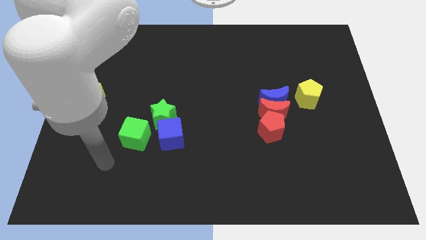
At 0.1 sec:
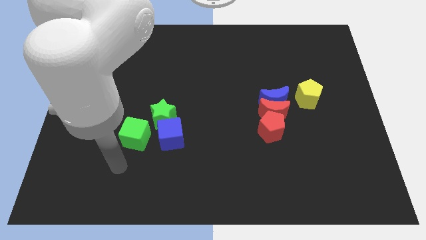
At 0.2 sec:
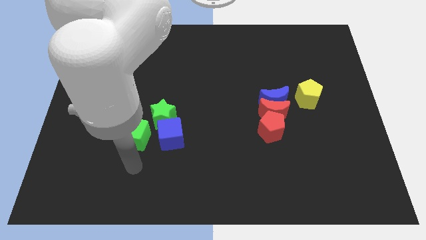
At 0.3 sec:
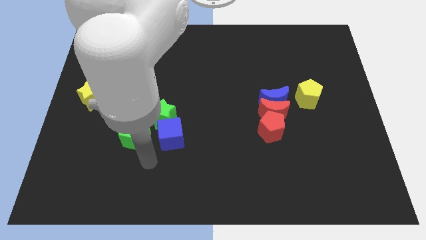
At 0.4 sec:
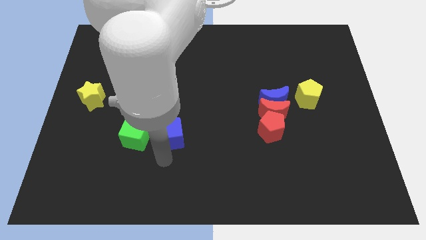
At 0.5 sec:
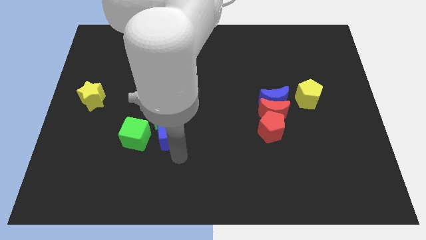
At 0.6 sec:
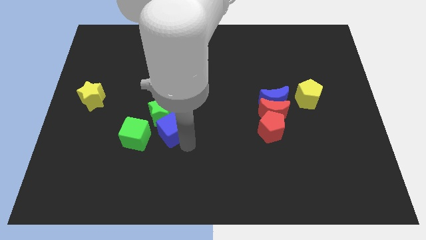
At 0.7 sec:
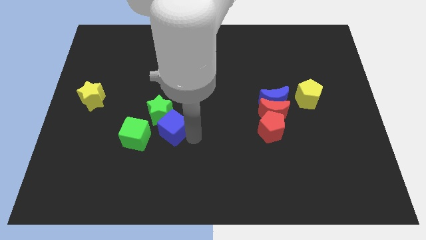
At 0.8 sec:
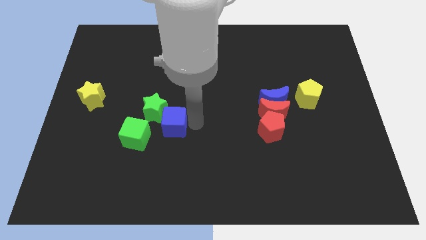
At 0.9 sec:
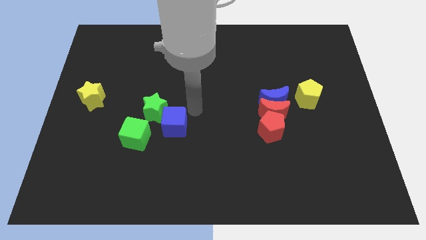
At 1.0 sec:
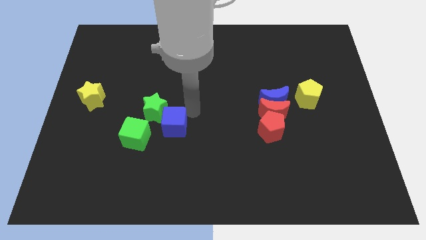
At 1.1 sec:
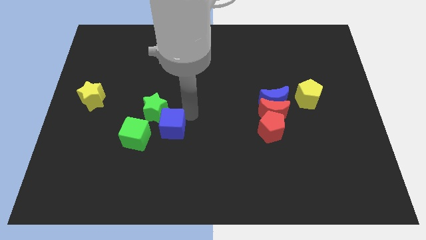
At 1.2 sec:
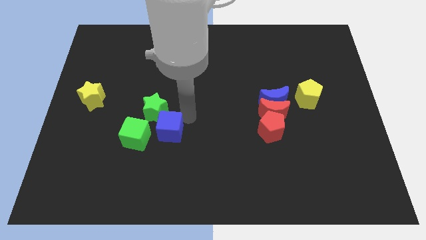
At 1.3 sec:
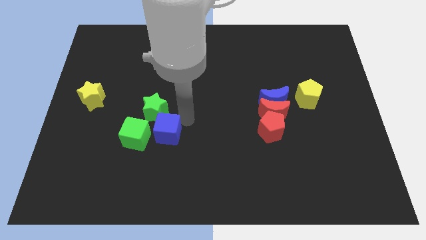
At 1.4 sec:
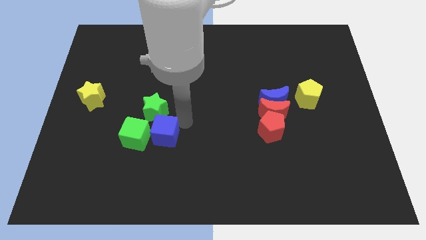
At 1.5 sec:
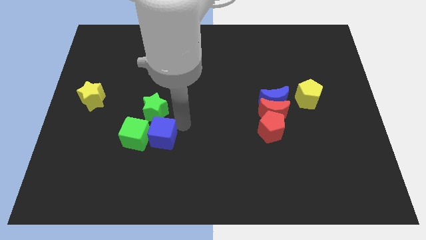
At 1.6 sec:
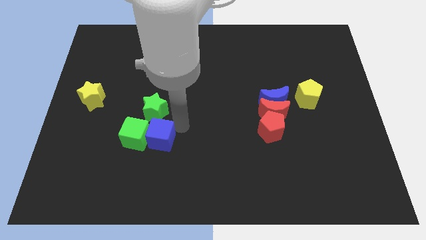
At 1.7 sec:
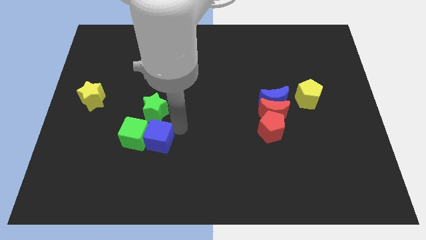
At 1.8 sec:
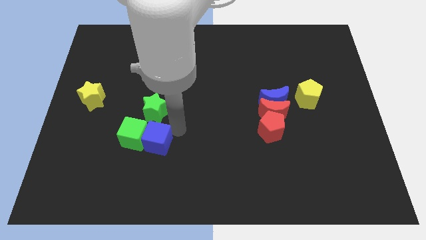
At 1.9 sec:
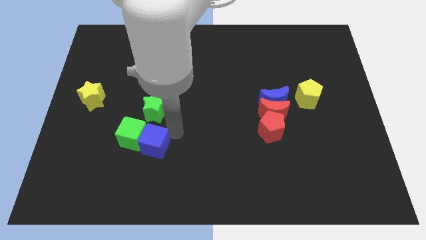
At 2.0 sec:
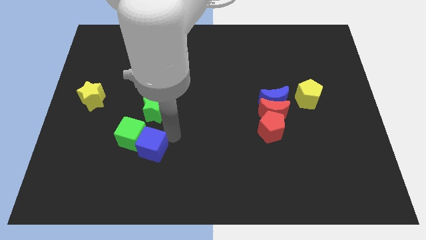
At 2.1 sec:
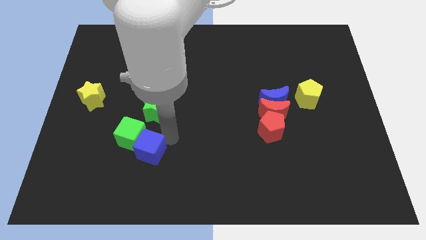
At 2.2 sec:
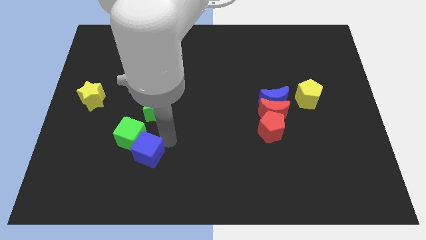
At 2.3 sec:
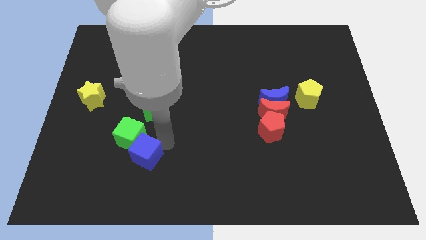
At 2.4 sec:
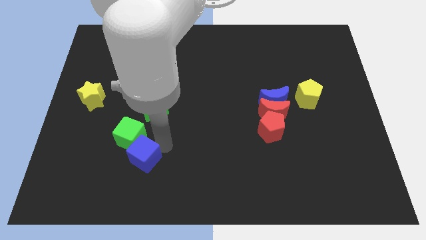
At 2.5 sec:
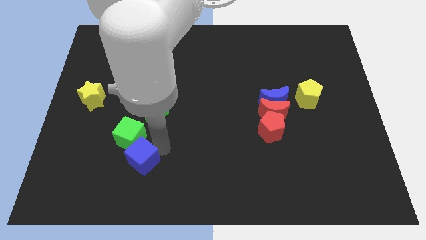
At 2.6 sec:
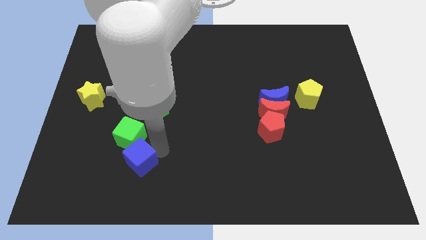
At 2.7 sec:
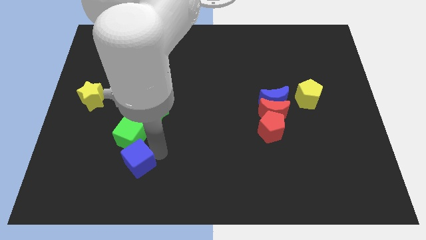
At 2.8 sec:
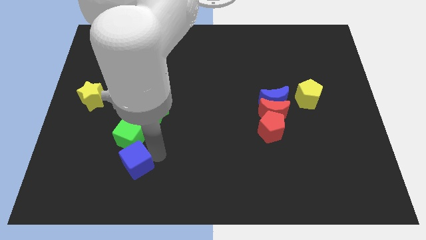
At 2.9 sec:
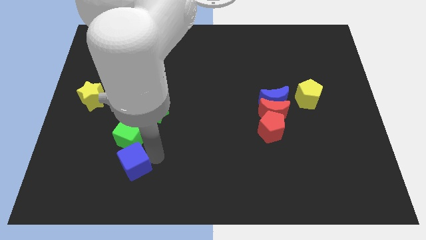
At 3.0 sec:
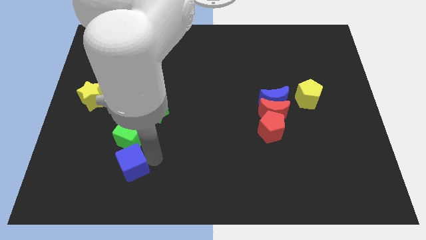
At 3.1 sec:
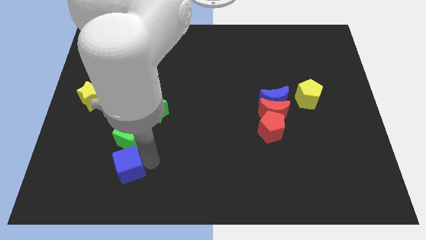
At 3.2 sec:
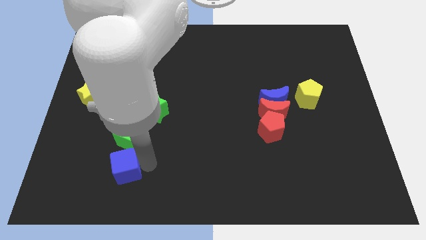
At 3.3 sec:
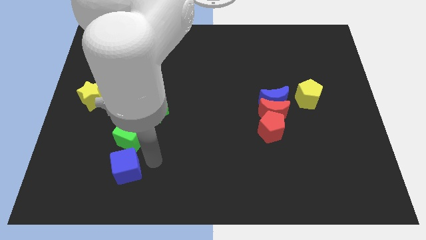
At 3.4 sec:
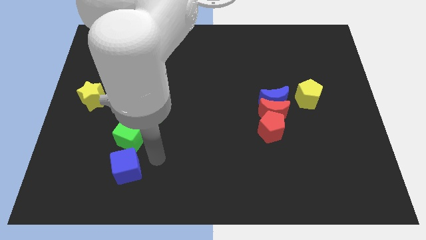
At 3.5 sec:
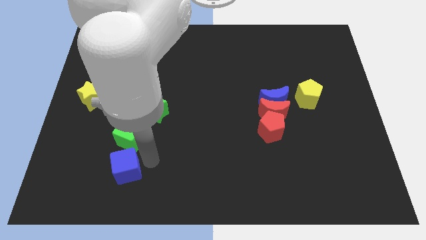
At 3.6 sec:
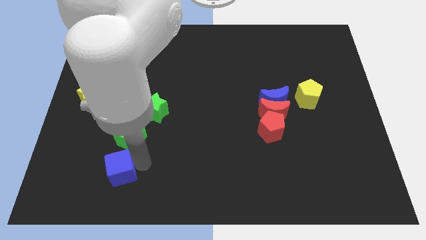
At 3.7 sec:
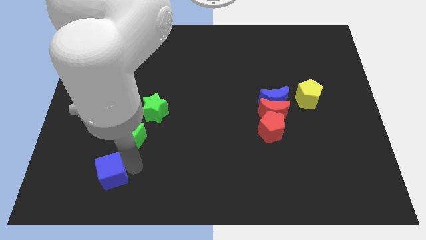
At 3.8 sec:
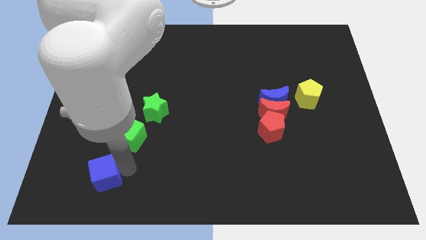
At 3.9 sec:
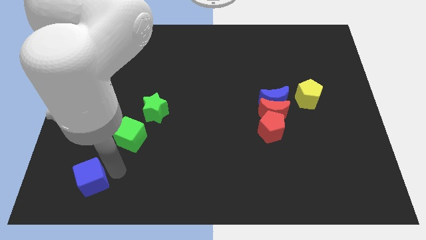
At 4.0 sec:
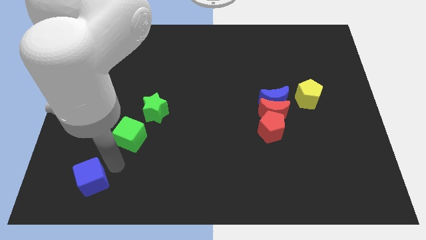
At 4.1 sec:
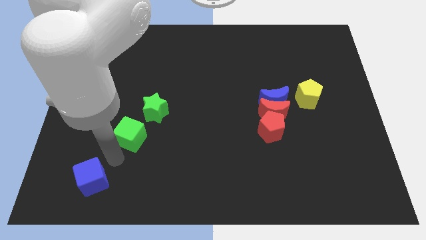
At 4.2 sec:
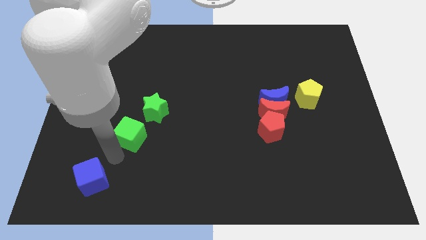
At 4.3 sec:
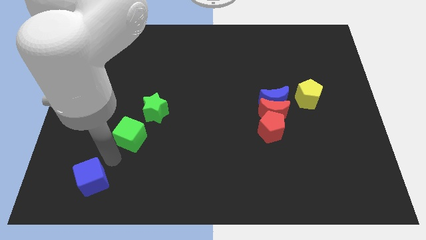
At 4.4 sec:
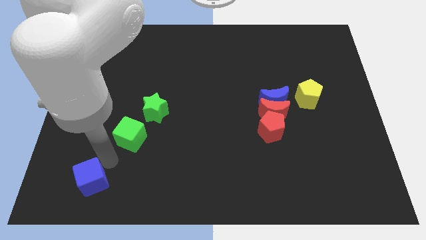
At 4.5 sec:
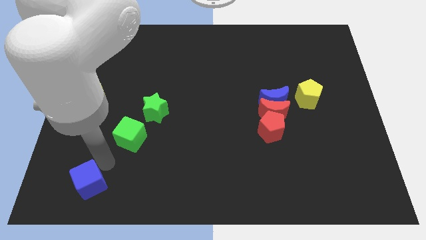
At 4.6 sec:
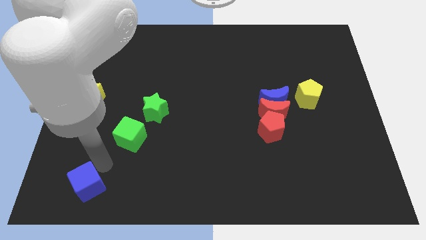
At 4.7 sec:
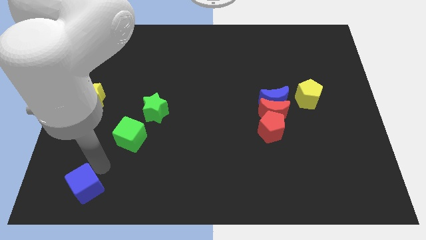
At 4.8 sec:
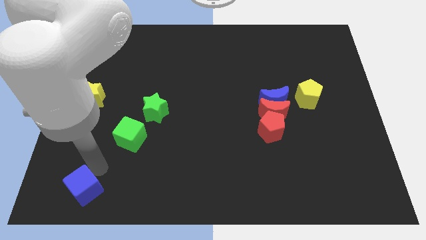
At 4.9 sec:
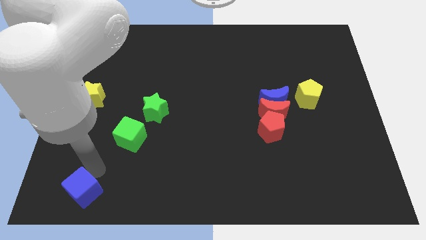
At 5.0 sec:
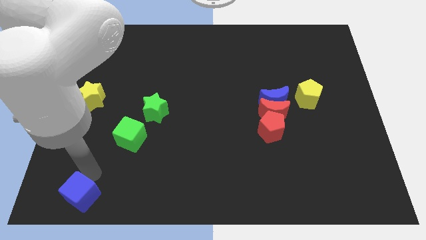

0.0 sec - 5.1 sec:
move the blue cube to the bottom left corner

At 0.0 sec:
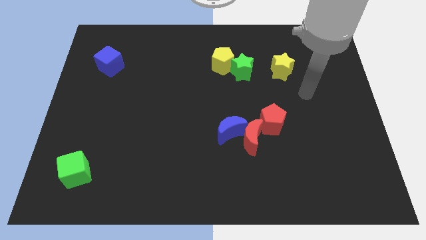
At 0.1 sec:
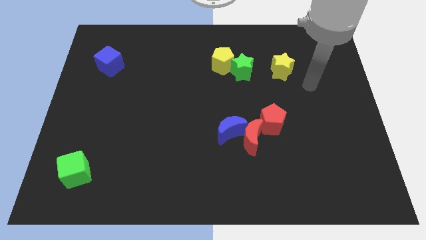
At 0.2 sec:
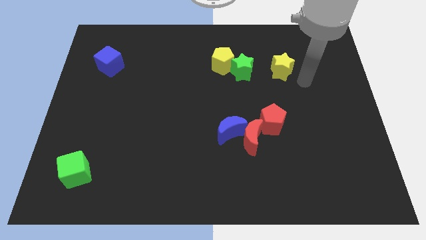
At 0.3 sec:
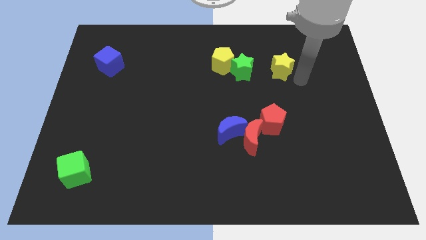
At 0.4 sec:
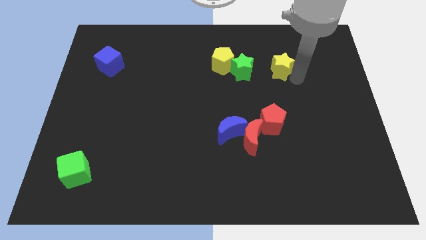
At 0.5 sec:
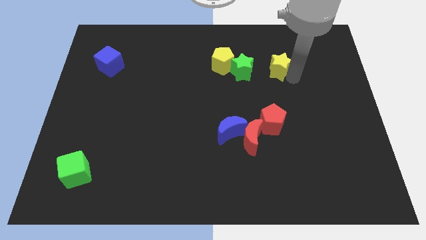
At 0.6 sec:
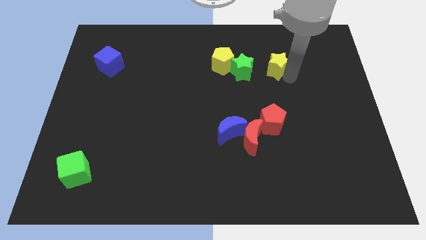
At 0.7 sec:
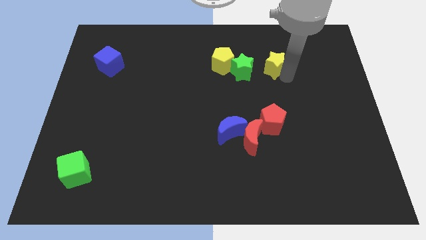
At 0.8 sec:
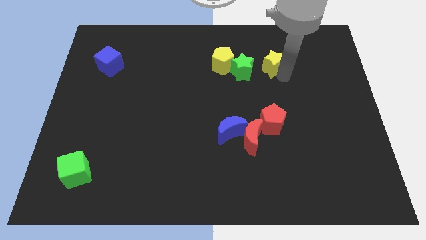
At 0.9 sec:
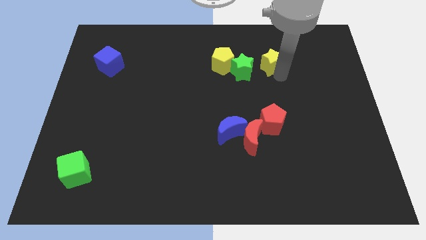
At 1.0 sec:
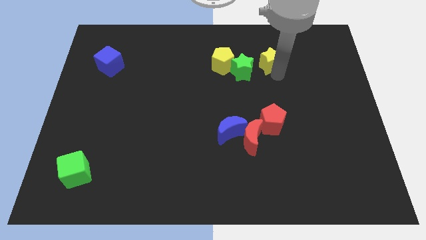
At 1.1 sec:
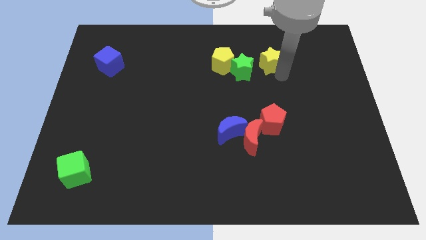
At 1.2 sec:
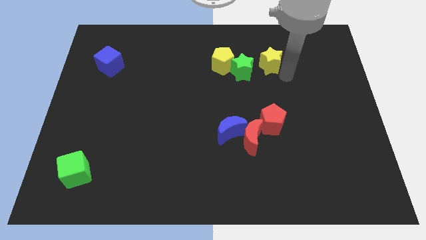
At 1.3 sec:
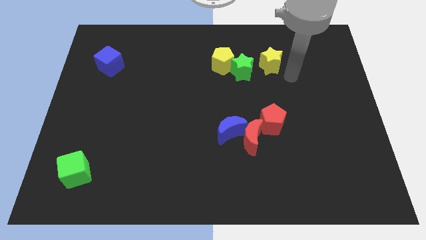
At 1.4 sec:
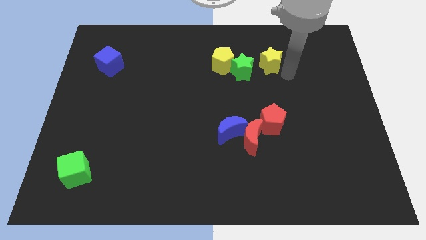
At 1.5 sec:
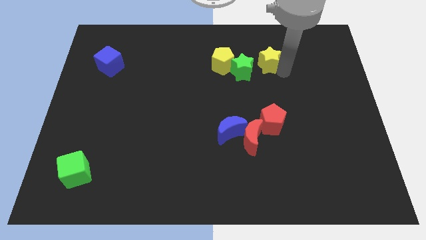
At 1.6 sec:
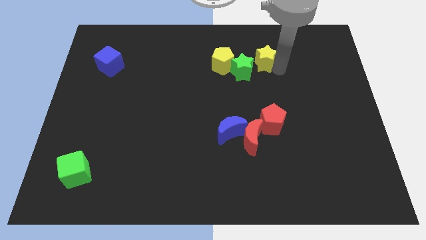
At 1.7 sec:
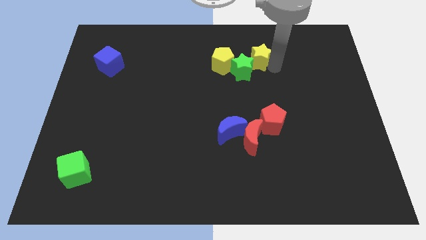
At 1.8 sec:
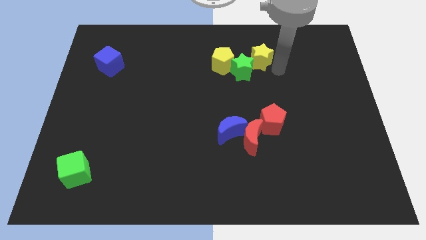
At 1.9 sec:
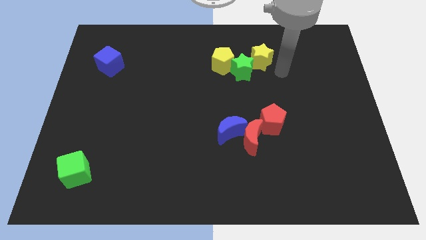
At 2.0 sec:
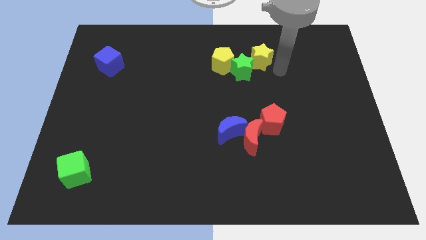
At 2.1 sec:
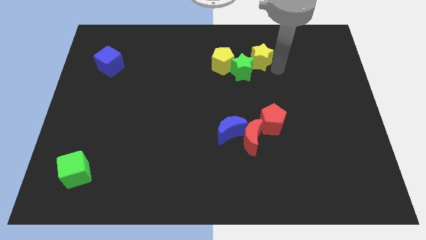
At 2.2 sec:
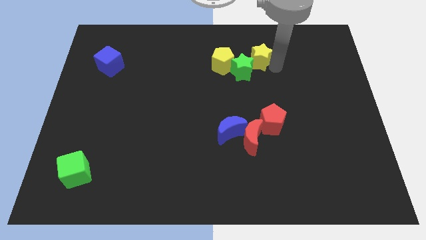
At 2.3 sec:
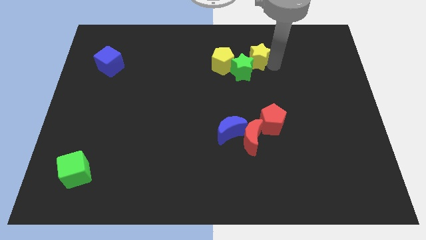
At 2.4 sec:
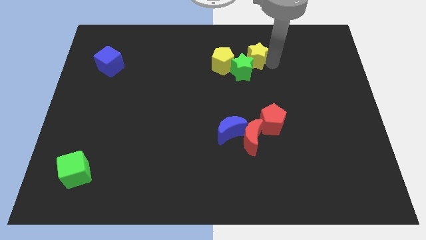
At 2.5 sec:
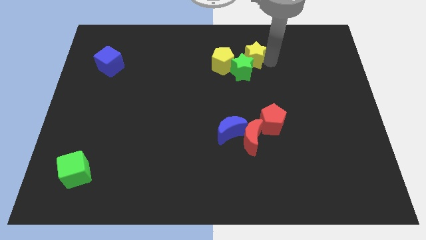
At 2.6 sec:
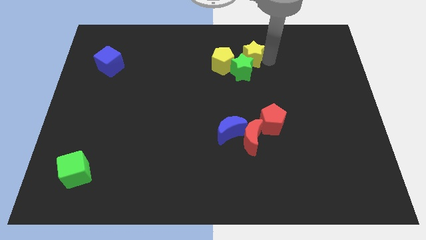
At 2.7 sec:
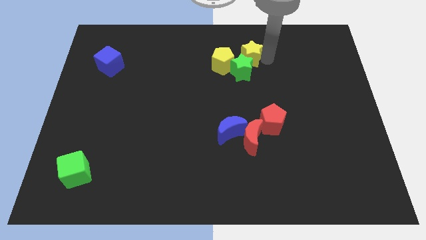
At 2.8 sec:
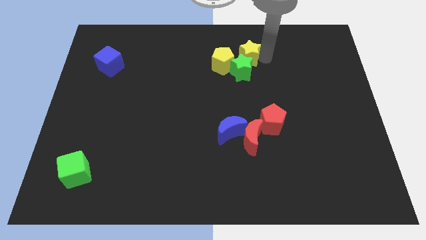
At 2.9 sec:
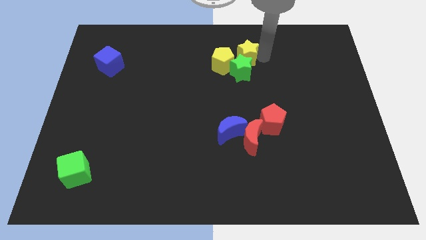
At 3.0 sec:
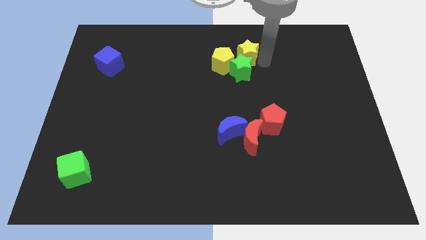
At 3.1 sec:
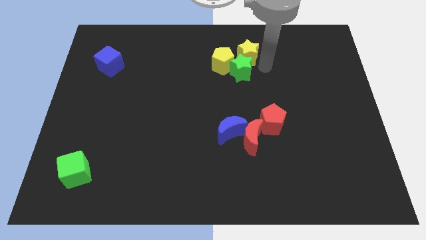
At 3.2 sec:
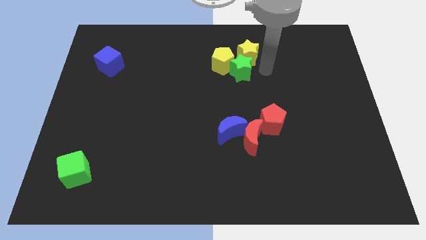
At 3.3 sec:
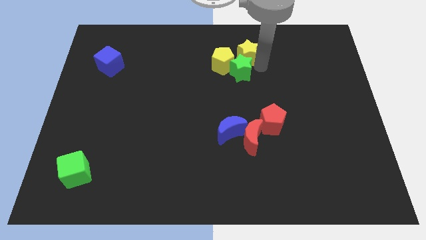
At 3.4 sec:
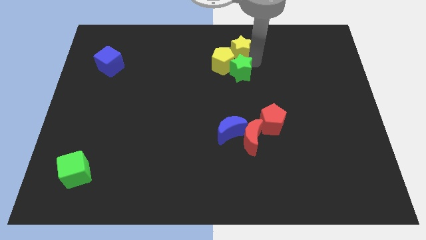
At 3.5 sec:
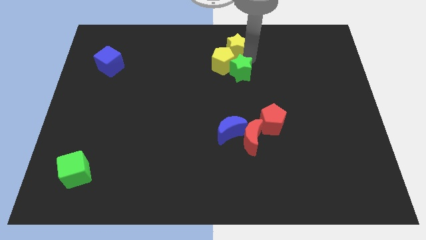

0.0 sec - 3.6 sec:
slide the yellow star to the towards your base
